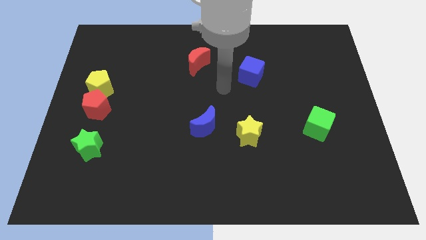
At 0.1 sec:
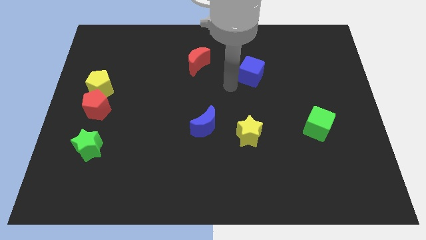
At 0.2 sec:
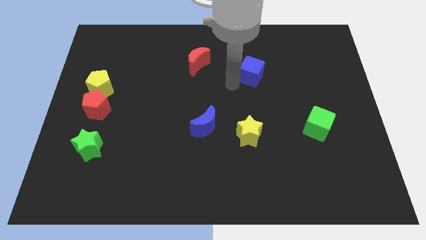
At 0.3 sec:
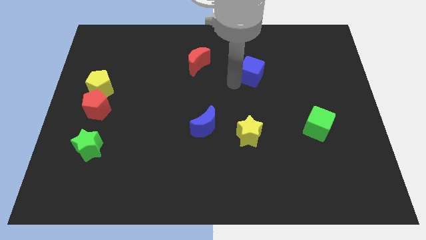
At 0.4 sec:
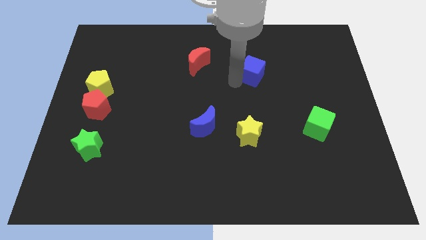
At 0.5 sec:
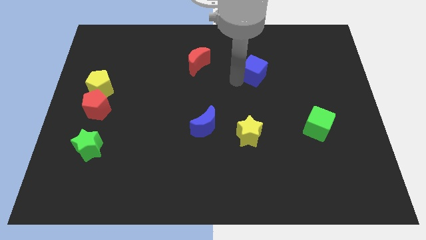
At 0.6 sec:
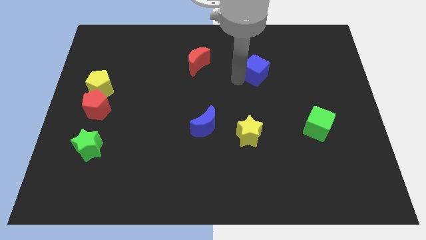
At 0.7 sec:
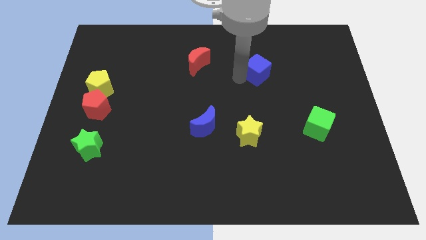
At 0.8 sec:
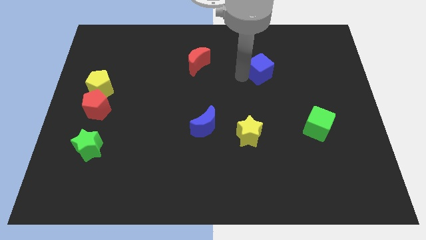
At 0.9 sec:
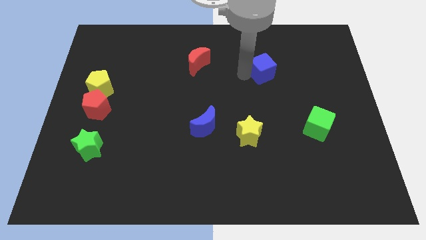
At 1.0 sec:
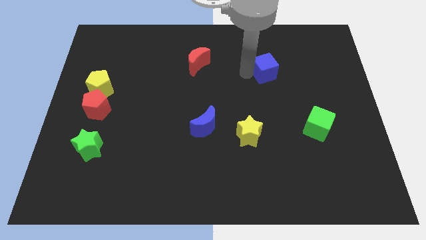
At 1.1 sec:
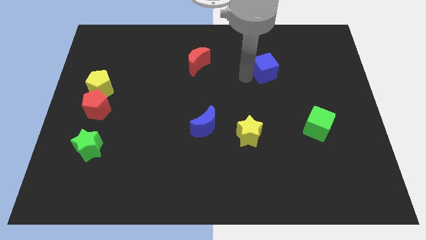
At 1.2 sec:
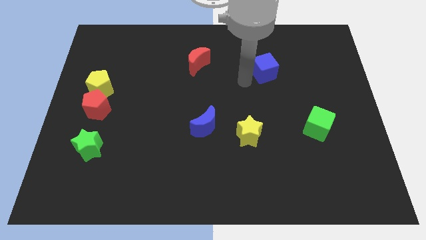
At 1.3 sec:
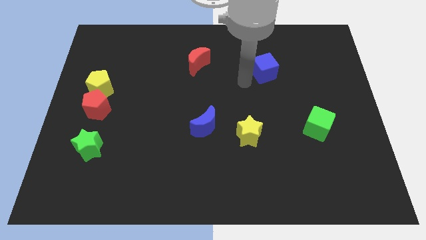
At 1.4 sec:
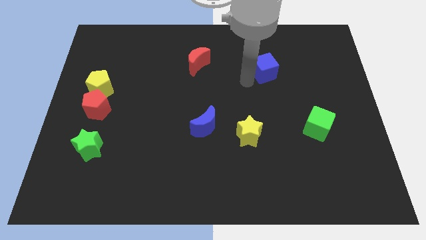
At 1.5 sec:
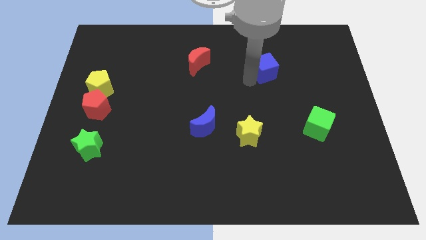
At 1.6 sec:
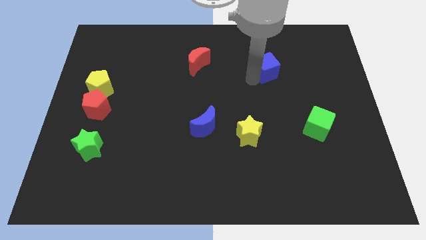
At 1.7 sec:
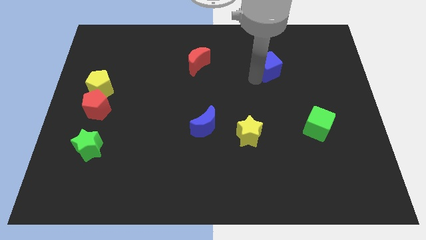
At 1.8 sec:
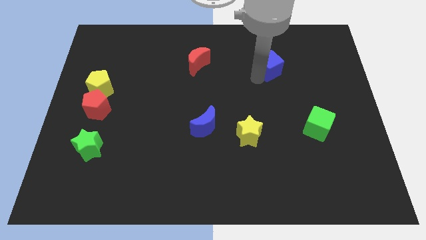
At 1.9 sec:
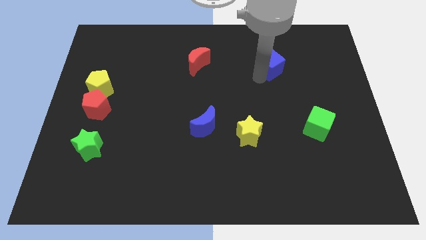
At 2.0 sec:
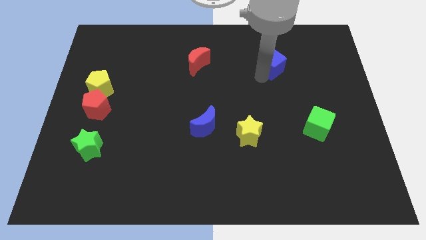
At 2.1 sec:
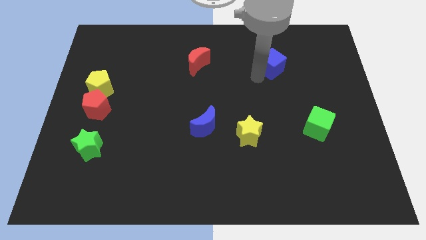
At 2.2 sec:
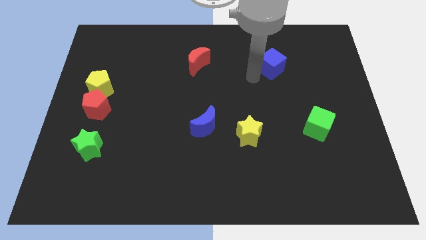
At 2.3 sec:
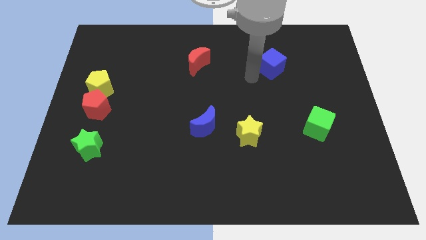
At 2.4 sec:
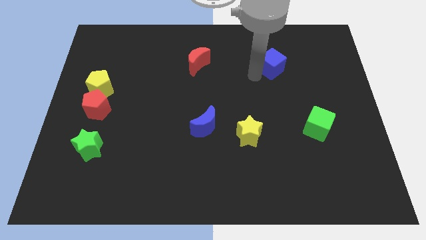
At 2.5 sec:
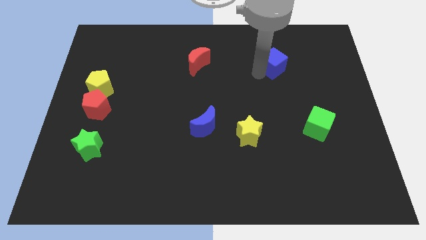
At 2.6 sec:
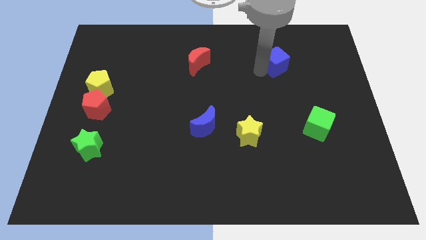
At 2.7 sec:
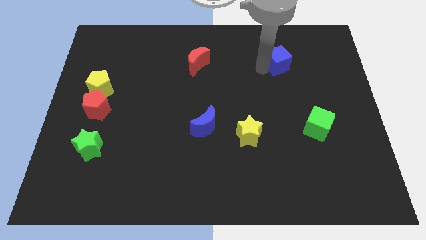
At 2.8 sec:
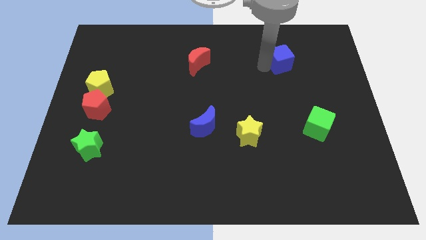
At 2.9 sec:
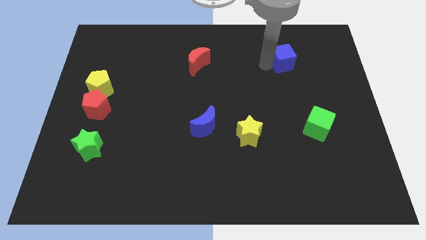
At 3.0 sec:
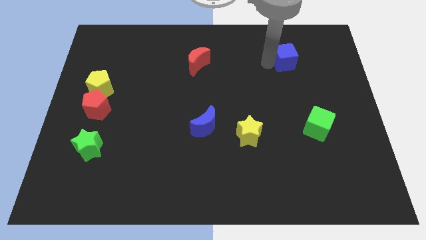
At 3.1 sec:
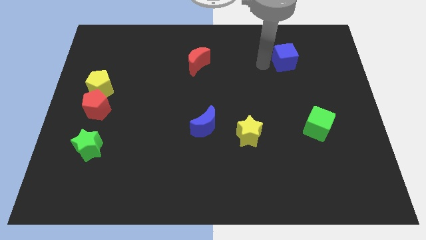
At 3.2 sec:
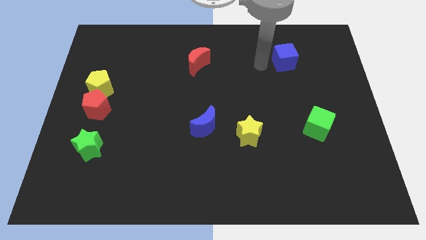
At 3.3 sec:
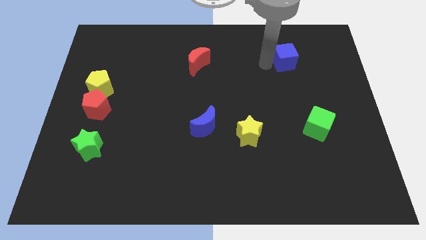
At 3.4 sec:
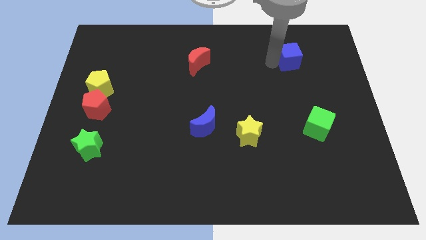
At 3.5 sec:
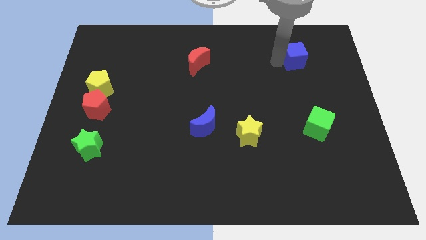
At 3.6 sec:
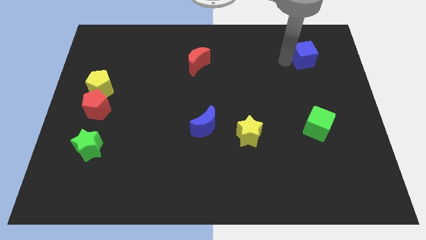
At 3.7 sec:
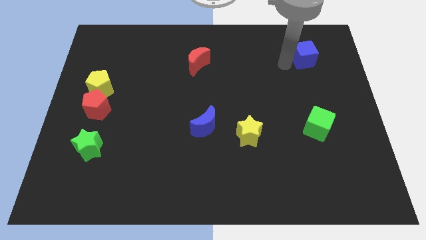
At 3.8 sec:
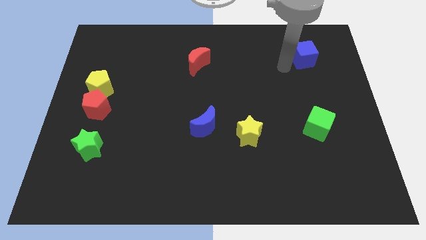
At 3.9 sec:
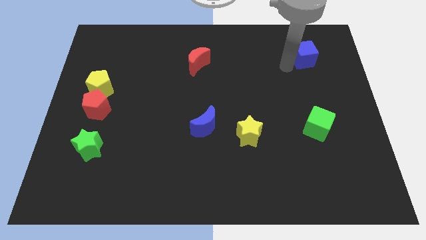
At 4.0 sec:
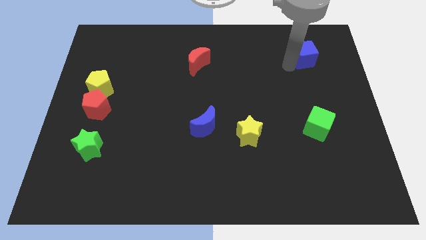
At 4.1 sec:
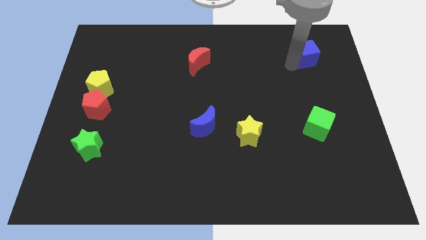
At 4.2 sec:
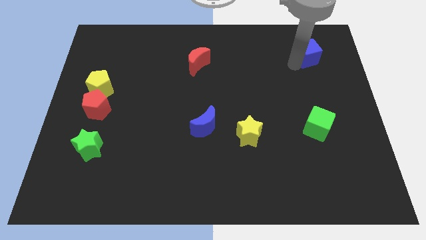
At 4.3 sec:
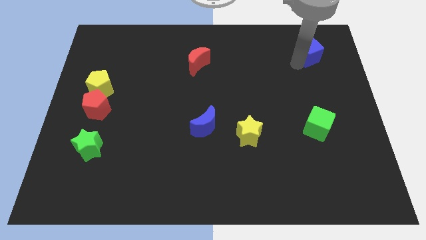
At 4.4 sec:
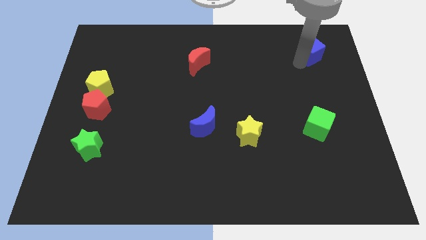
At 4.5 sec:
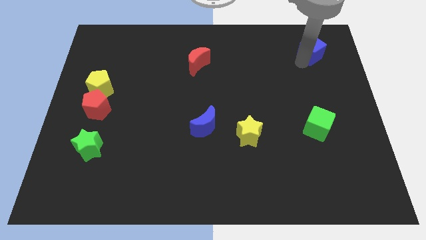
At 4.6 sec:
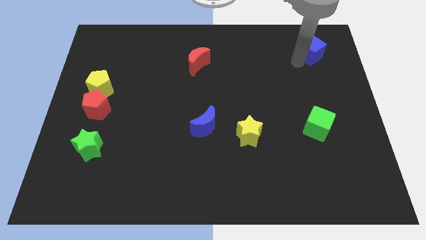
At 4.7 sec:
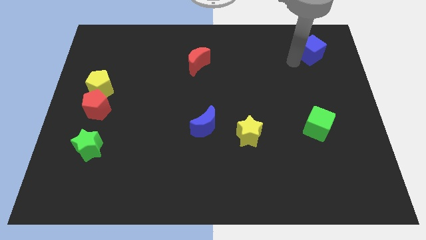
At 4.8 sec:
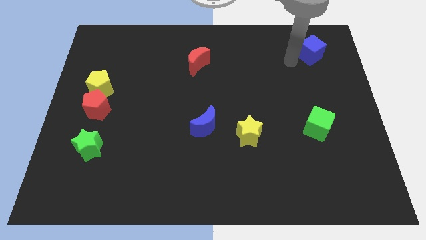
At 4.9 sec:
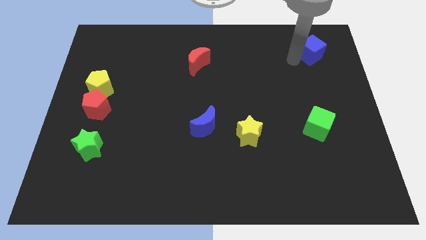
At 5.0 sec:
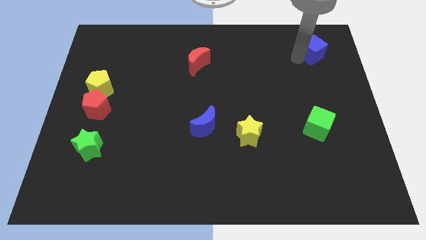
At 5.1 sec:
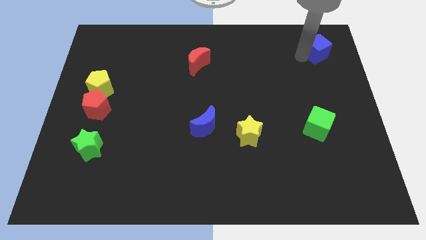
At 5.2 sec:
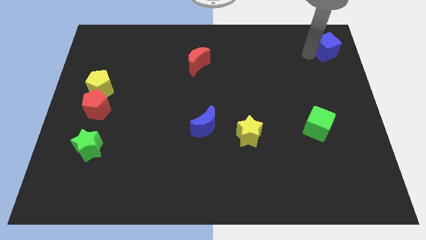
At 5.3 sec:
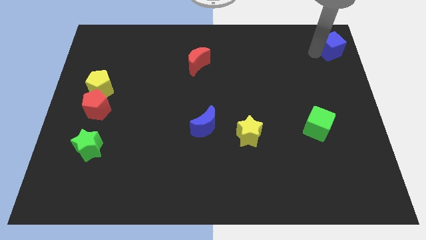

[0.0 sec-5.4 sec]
push the blue cube to the top right

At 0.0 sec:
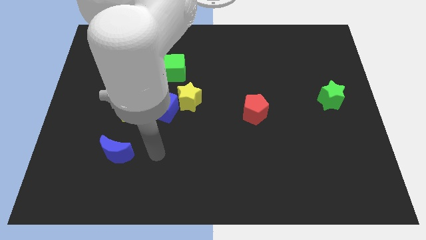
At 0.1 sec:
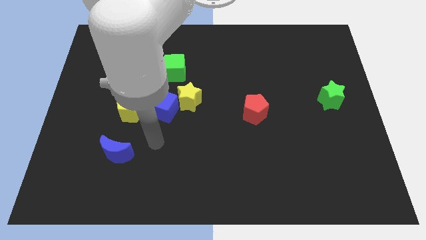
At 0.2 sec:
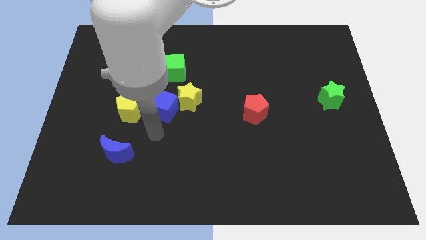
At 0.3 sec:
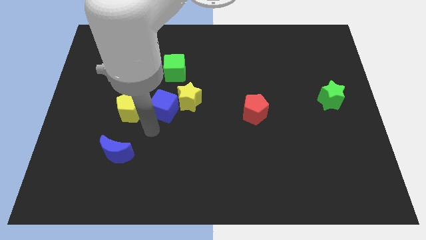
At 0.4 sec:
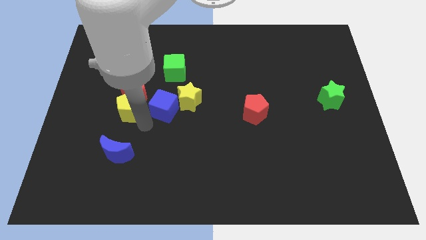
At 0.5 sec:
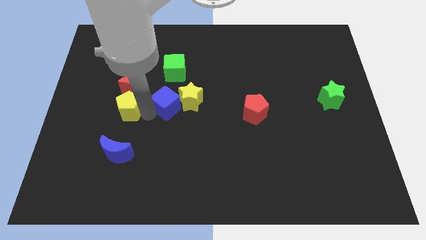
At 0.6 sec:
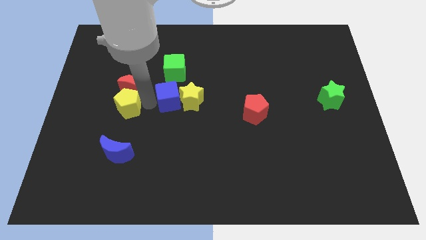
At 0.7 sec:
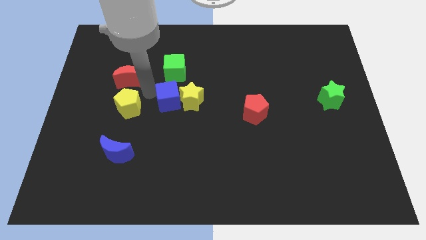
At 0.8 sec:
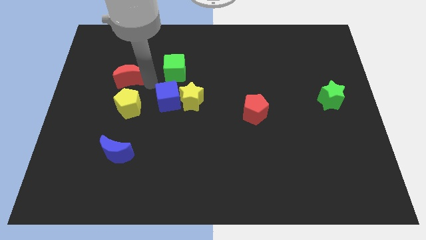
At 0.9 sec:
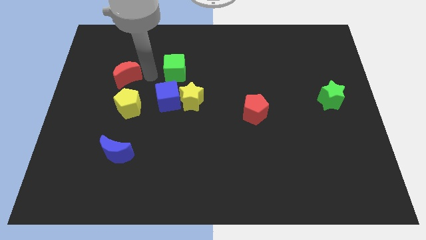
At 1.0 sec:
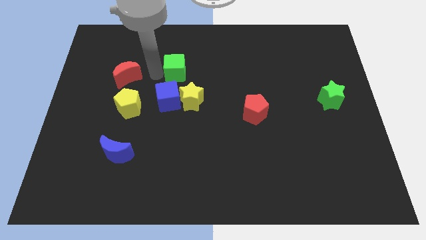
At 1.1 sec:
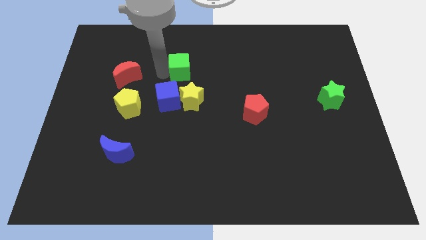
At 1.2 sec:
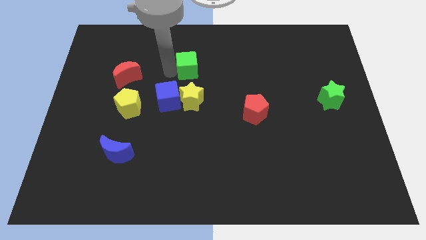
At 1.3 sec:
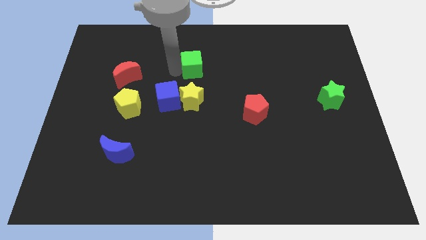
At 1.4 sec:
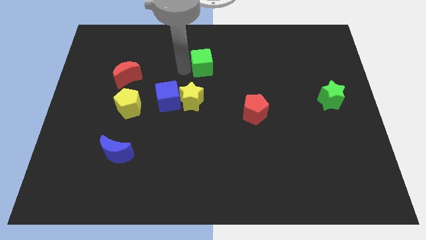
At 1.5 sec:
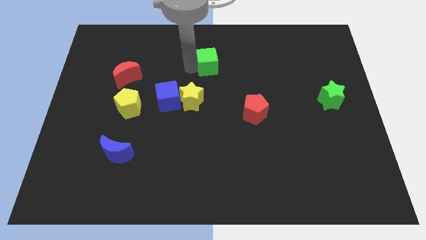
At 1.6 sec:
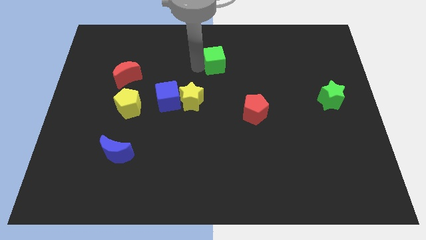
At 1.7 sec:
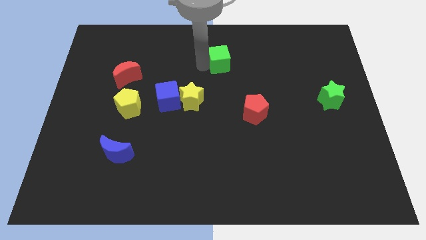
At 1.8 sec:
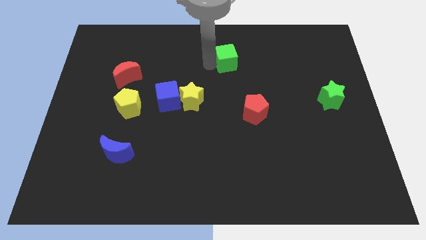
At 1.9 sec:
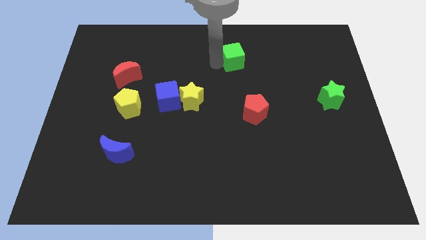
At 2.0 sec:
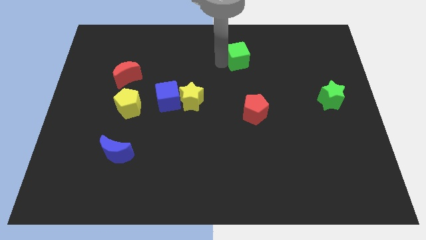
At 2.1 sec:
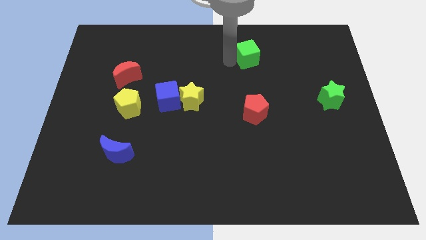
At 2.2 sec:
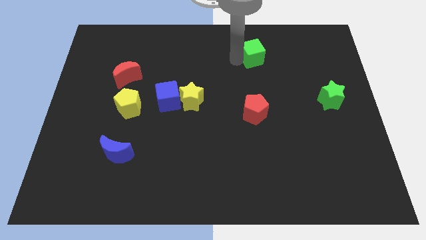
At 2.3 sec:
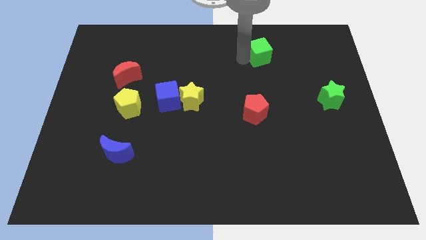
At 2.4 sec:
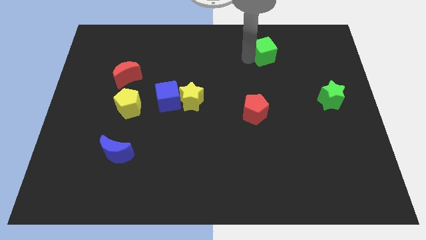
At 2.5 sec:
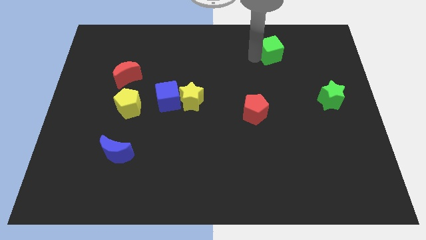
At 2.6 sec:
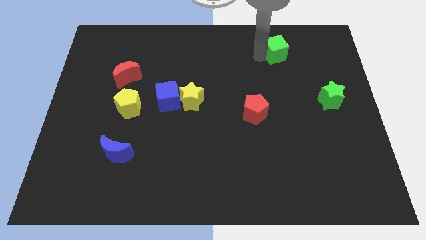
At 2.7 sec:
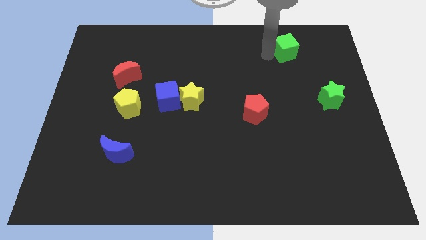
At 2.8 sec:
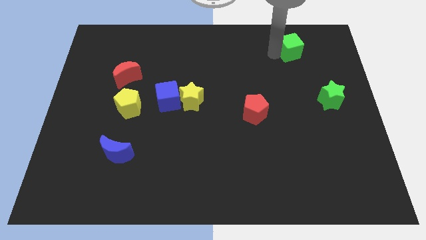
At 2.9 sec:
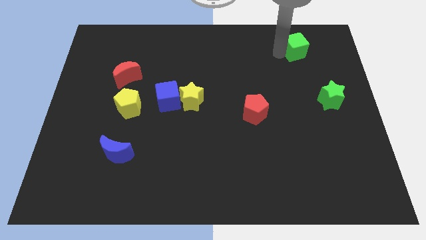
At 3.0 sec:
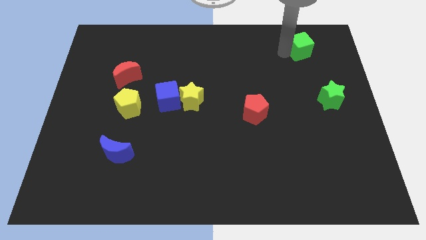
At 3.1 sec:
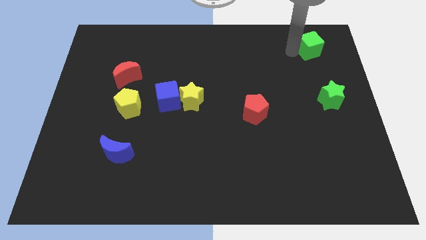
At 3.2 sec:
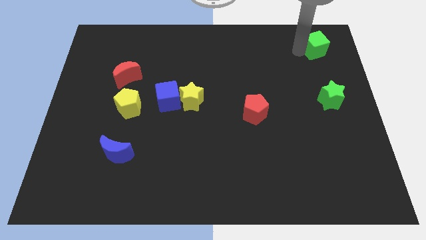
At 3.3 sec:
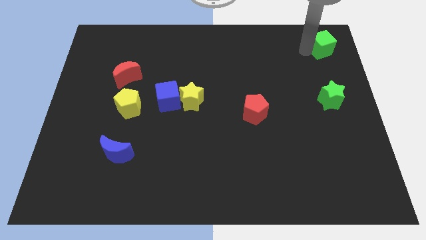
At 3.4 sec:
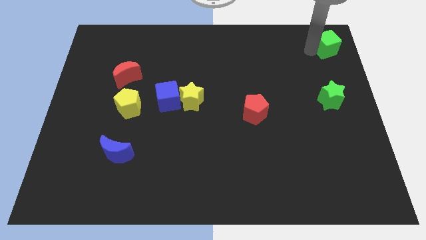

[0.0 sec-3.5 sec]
move the green cube to the top right
